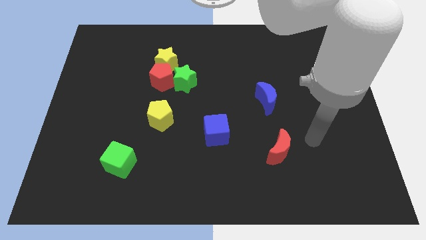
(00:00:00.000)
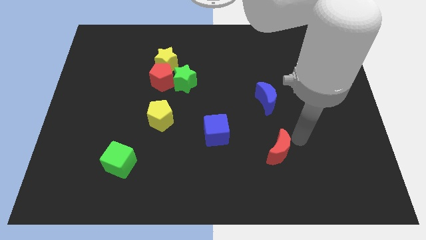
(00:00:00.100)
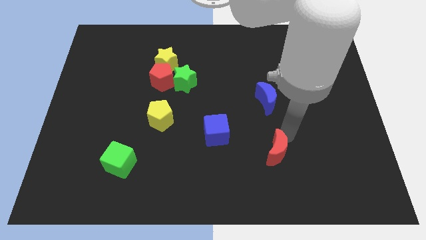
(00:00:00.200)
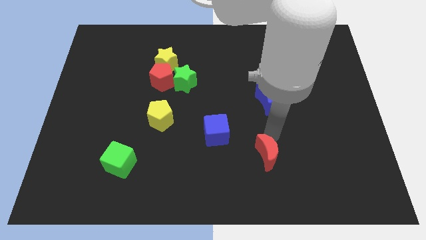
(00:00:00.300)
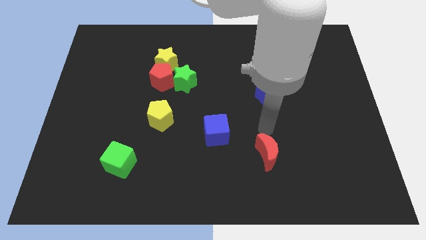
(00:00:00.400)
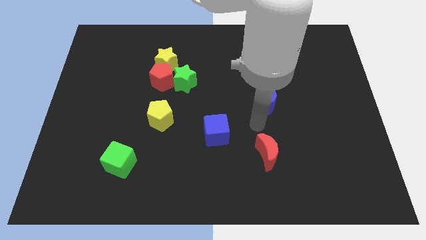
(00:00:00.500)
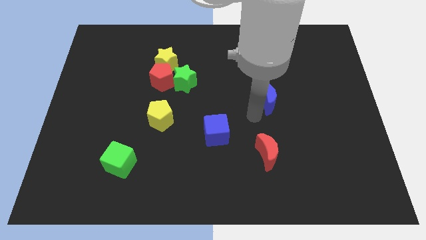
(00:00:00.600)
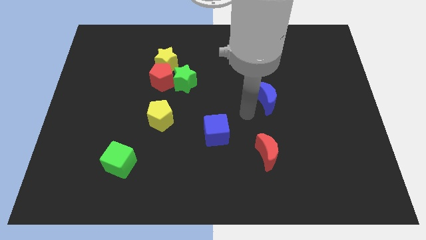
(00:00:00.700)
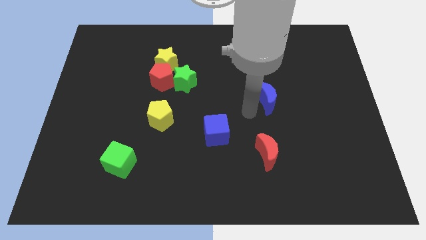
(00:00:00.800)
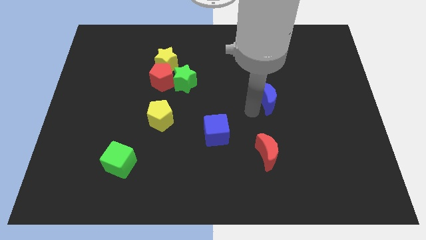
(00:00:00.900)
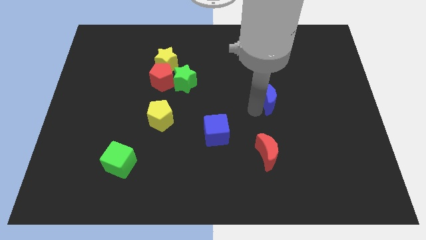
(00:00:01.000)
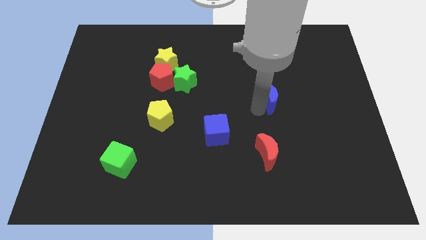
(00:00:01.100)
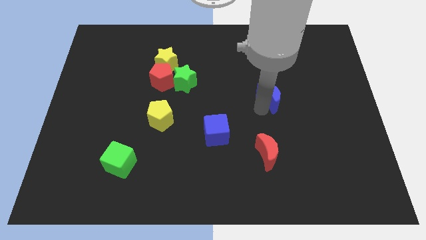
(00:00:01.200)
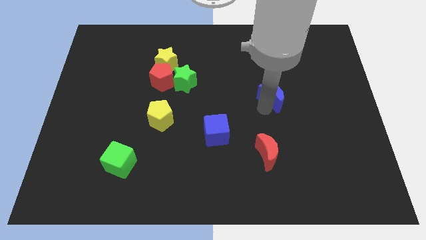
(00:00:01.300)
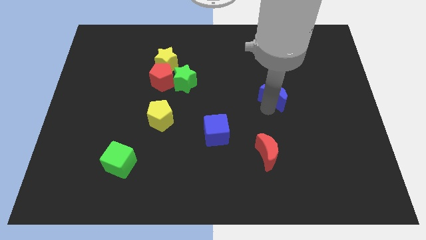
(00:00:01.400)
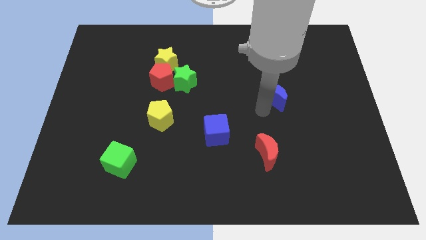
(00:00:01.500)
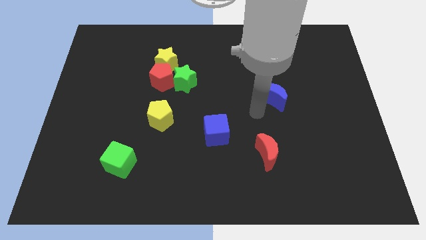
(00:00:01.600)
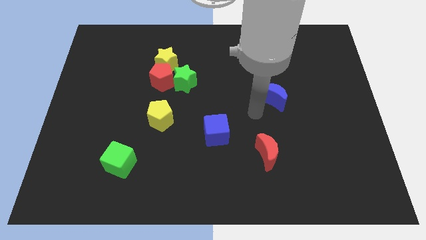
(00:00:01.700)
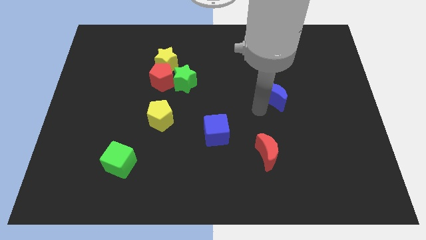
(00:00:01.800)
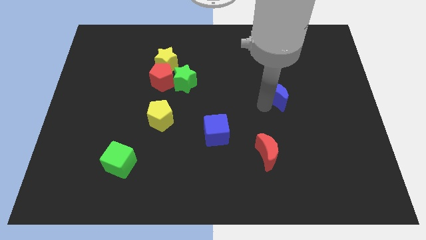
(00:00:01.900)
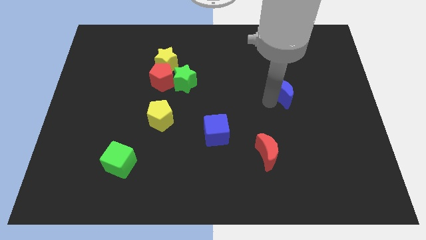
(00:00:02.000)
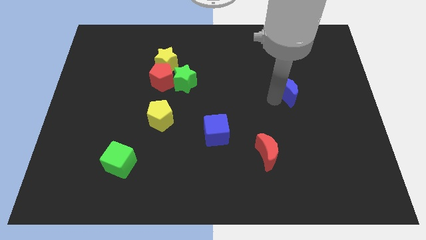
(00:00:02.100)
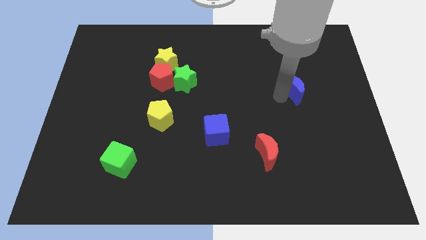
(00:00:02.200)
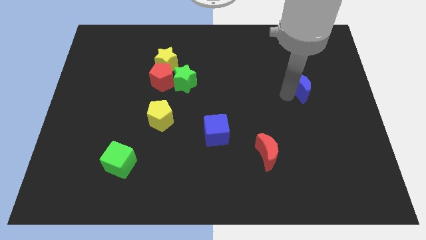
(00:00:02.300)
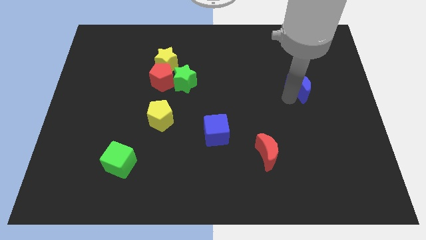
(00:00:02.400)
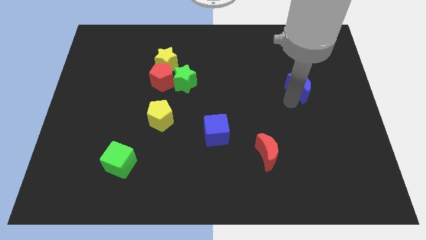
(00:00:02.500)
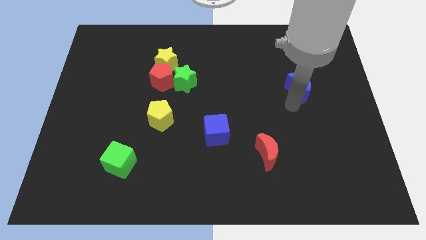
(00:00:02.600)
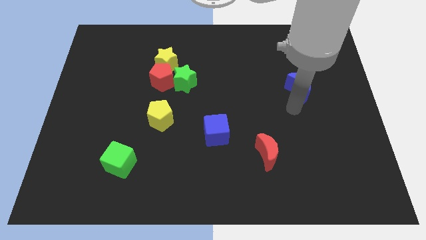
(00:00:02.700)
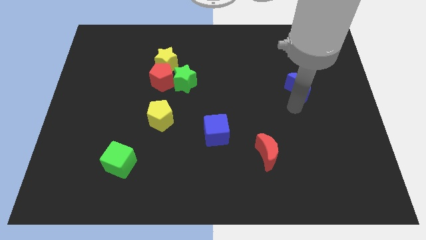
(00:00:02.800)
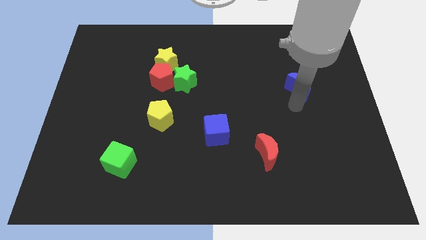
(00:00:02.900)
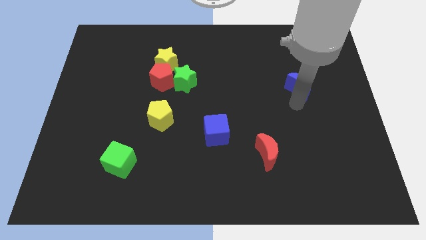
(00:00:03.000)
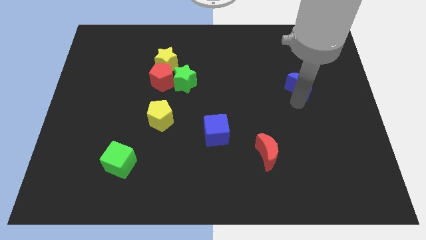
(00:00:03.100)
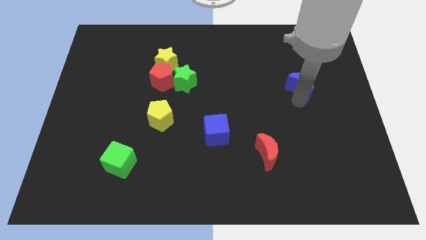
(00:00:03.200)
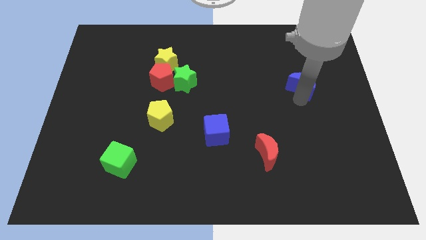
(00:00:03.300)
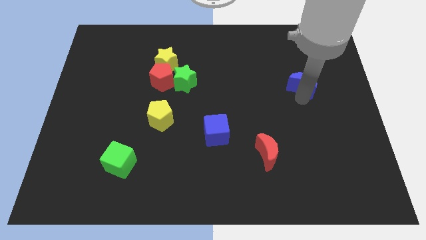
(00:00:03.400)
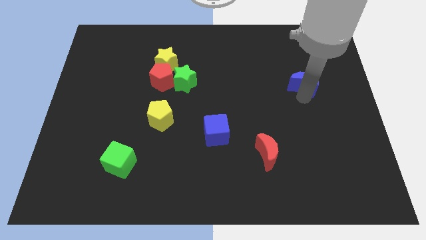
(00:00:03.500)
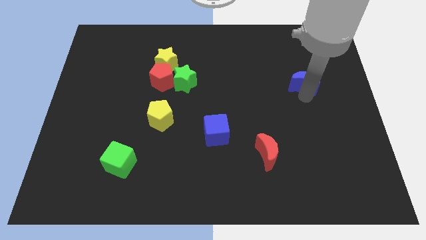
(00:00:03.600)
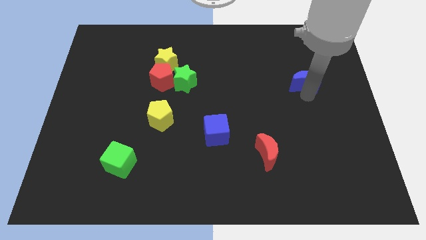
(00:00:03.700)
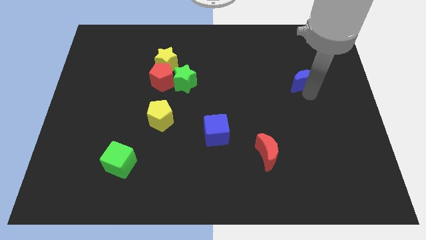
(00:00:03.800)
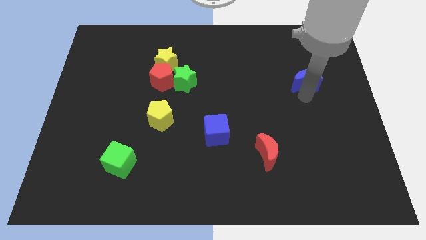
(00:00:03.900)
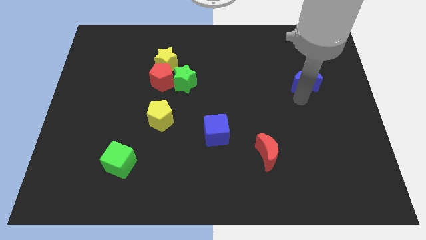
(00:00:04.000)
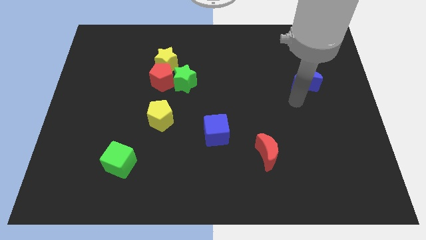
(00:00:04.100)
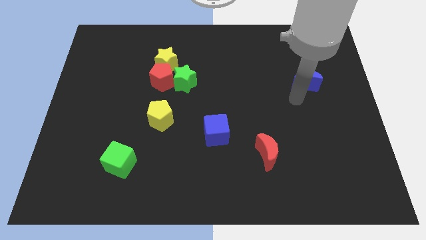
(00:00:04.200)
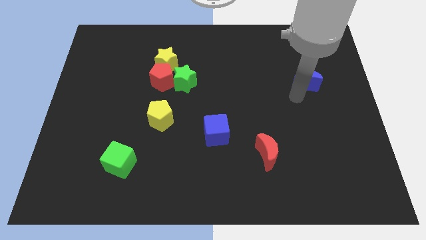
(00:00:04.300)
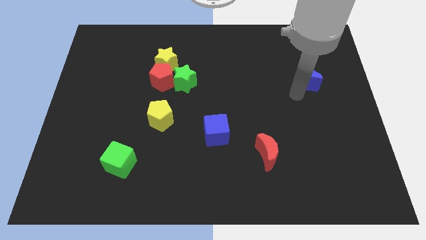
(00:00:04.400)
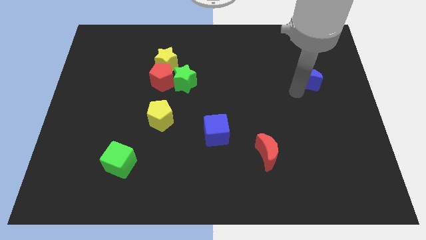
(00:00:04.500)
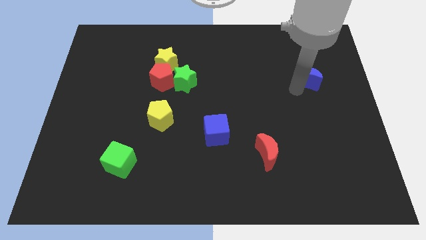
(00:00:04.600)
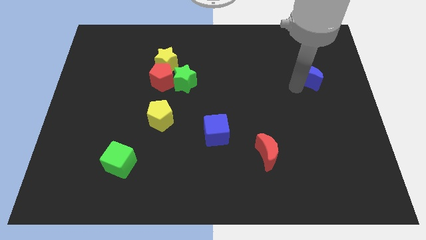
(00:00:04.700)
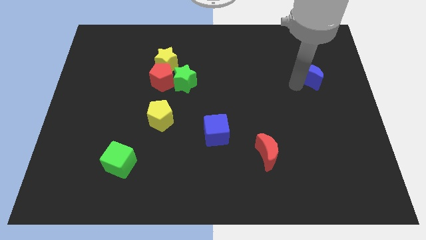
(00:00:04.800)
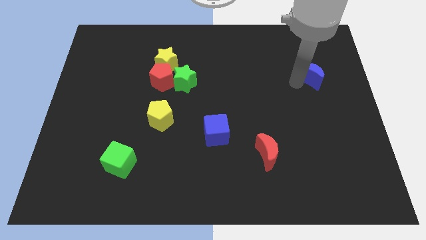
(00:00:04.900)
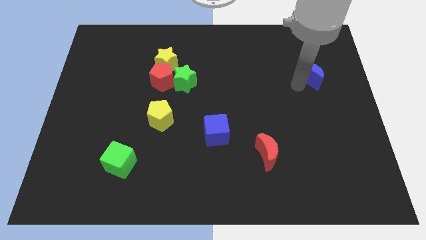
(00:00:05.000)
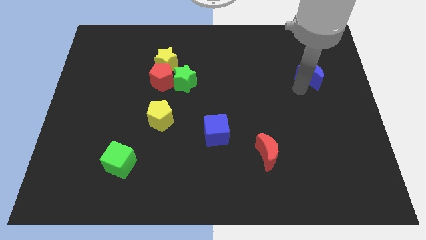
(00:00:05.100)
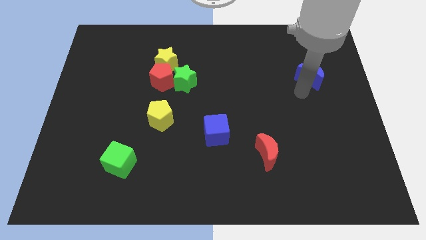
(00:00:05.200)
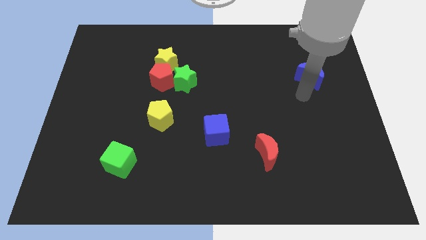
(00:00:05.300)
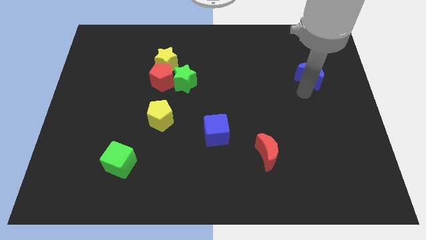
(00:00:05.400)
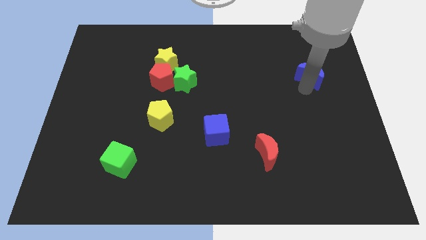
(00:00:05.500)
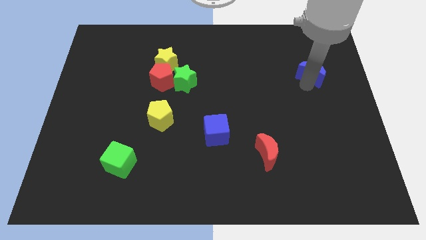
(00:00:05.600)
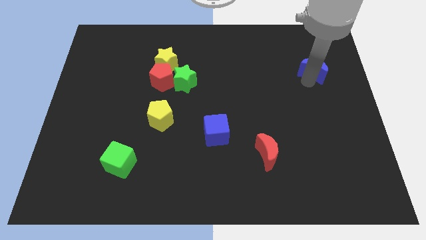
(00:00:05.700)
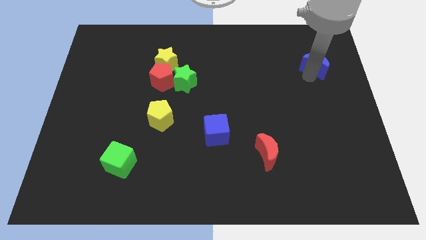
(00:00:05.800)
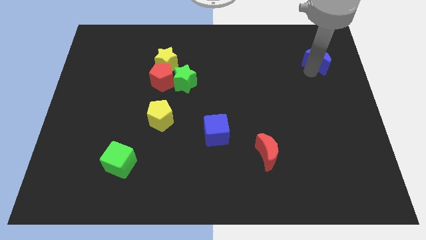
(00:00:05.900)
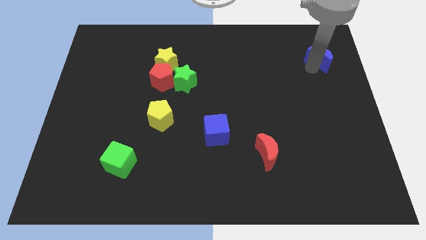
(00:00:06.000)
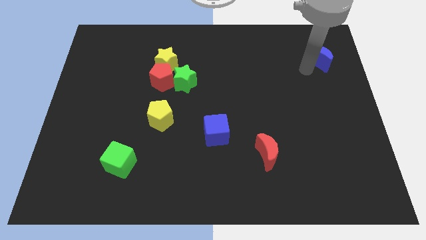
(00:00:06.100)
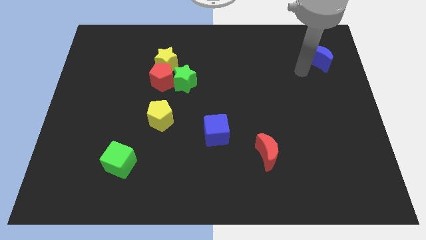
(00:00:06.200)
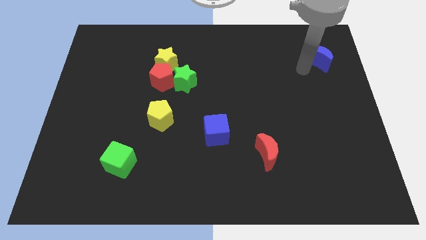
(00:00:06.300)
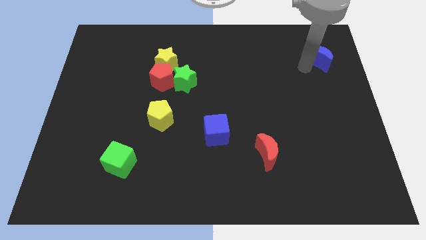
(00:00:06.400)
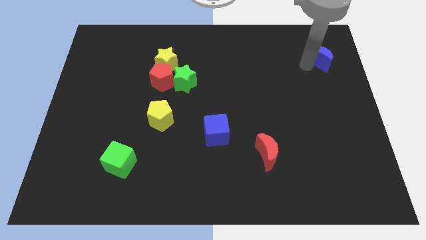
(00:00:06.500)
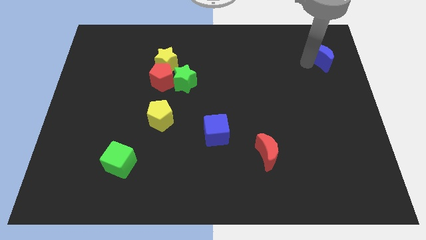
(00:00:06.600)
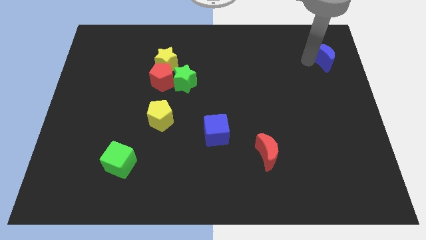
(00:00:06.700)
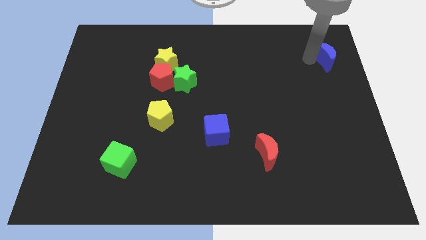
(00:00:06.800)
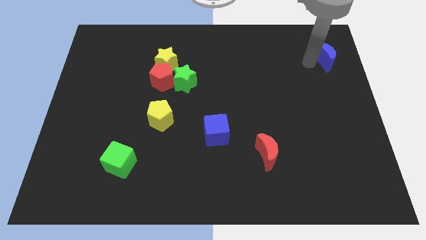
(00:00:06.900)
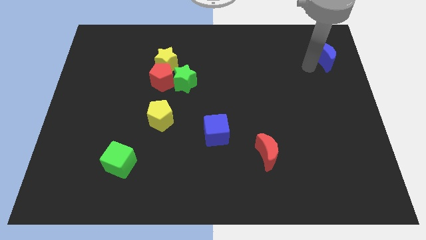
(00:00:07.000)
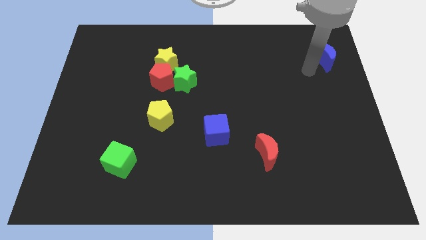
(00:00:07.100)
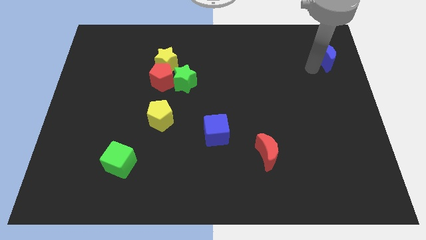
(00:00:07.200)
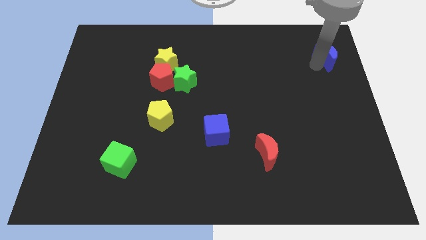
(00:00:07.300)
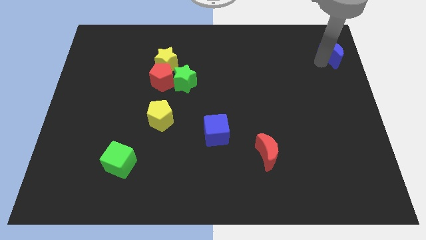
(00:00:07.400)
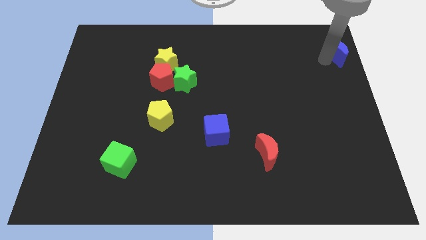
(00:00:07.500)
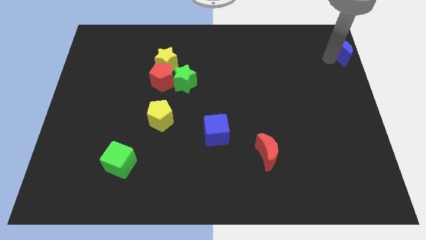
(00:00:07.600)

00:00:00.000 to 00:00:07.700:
push the blue moon to the top right of the board
